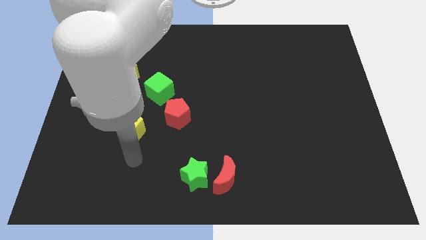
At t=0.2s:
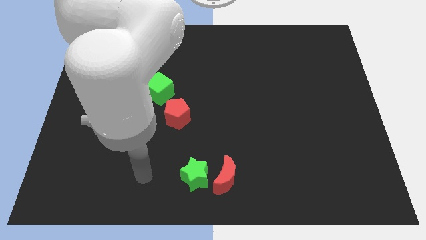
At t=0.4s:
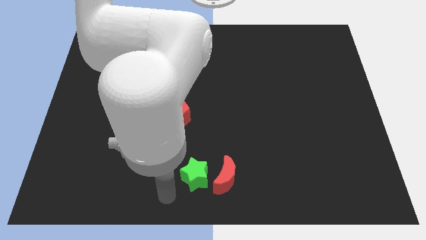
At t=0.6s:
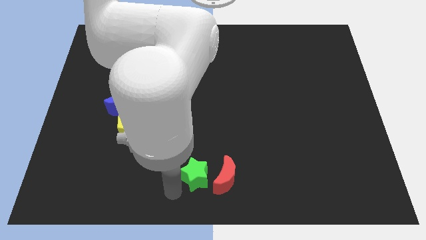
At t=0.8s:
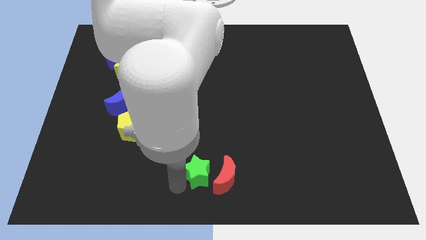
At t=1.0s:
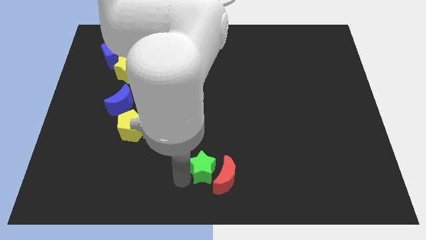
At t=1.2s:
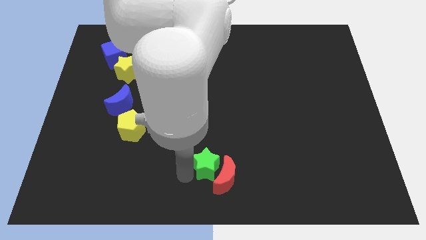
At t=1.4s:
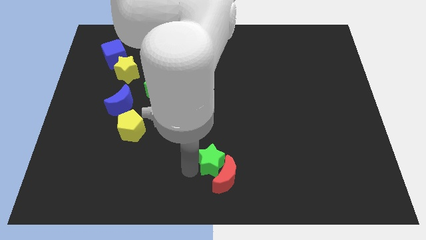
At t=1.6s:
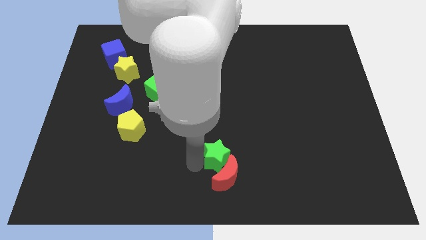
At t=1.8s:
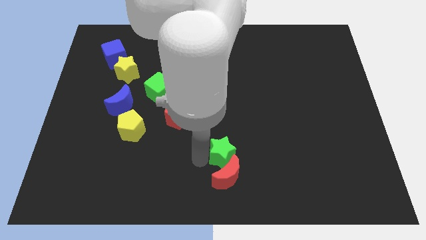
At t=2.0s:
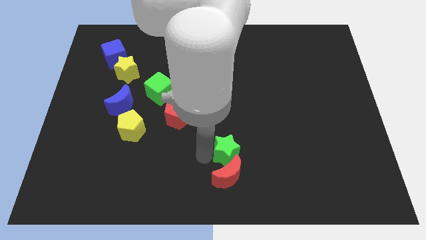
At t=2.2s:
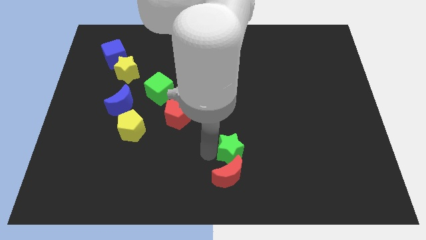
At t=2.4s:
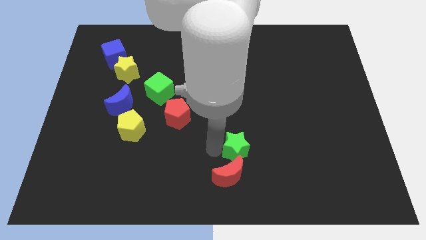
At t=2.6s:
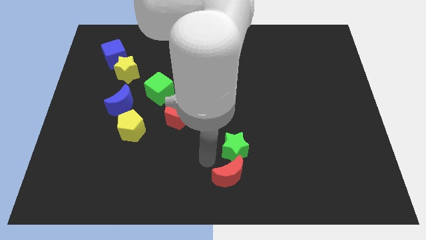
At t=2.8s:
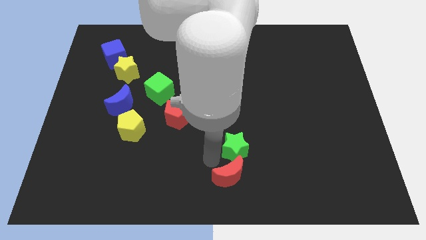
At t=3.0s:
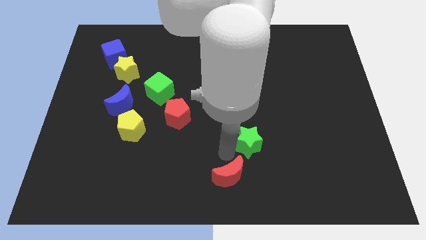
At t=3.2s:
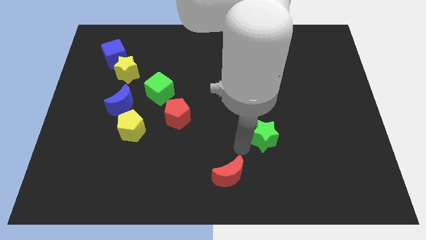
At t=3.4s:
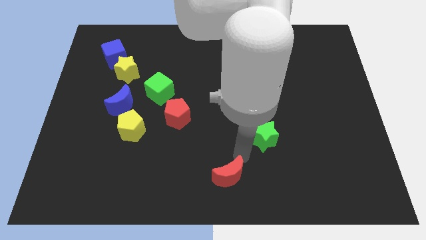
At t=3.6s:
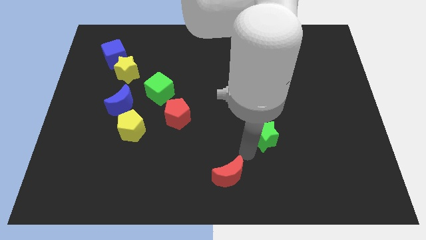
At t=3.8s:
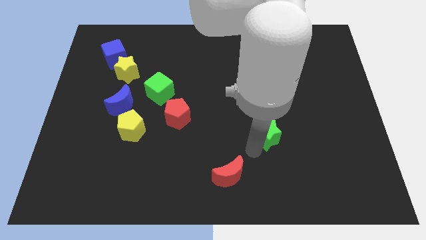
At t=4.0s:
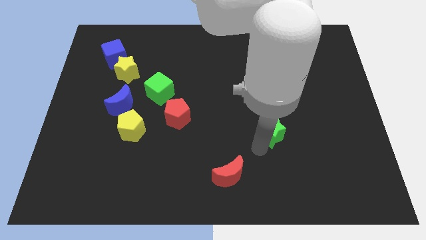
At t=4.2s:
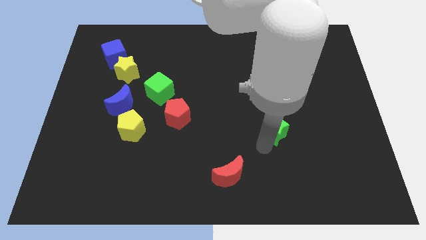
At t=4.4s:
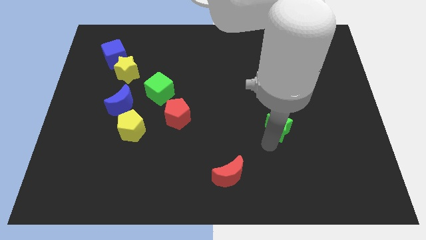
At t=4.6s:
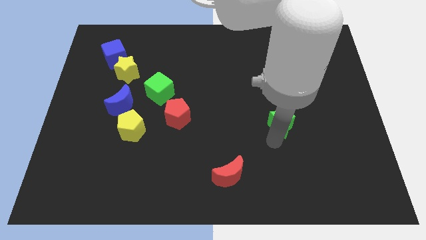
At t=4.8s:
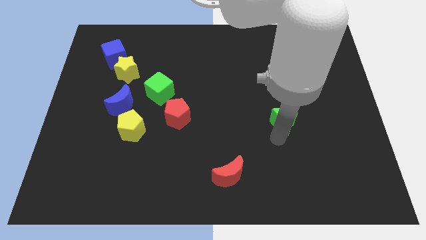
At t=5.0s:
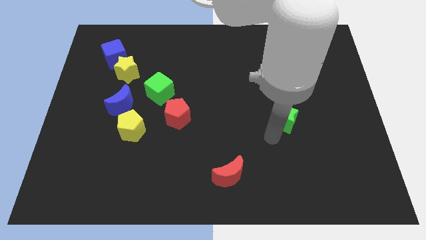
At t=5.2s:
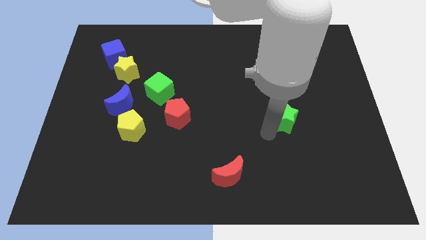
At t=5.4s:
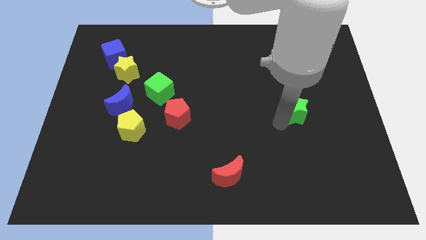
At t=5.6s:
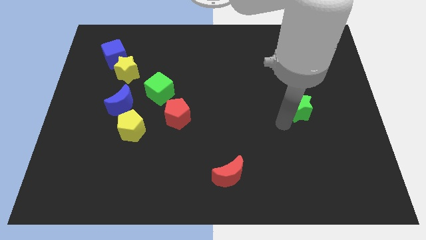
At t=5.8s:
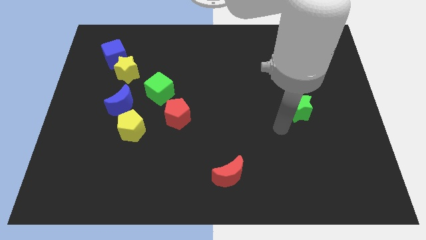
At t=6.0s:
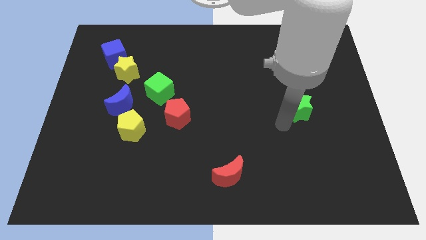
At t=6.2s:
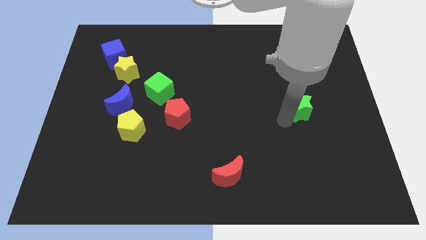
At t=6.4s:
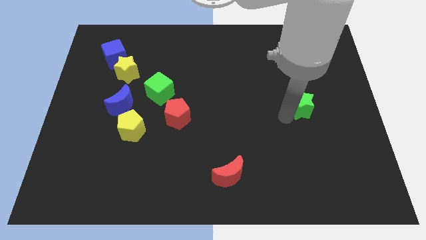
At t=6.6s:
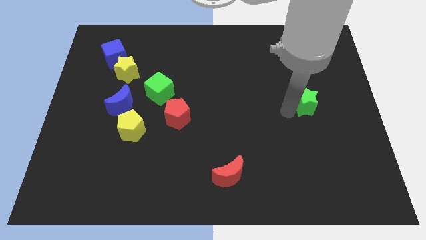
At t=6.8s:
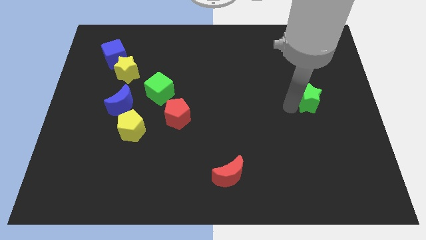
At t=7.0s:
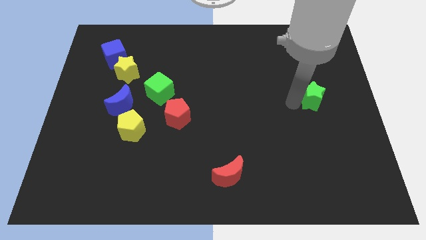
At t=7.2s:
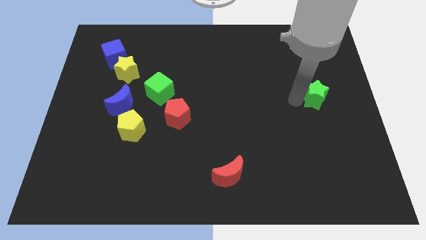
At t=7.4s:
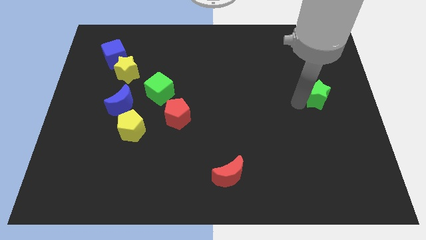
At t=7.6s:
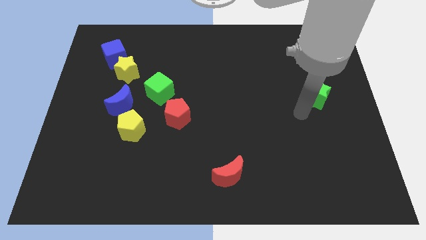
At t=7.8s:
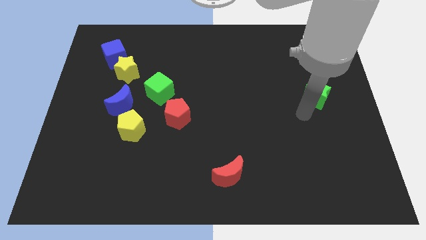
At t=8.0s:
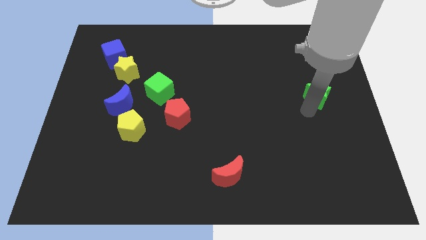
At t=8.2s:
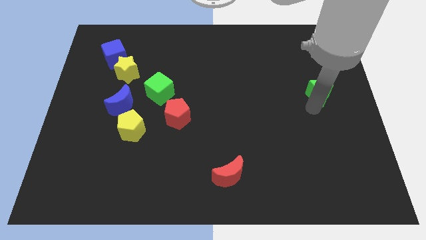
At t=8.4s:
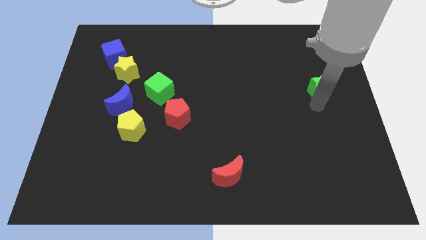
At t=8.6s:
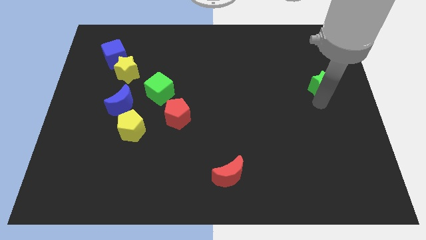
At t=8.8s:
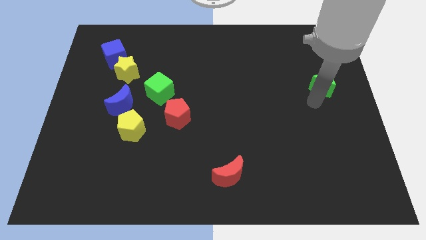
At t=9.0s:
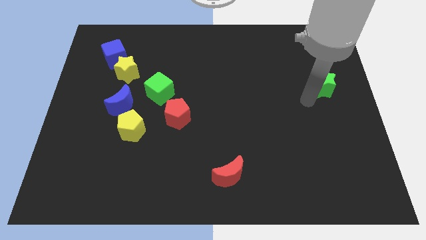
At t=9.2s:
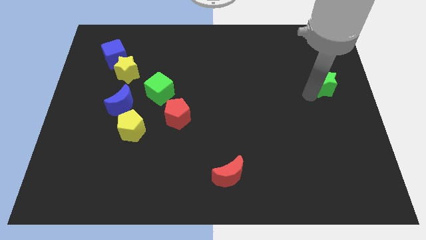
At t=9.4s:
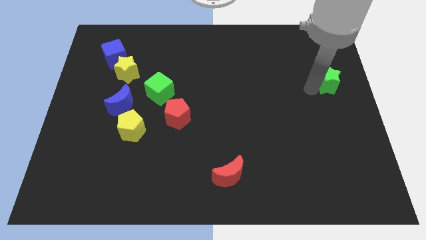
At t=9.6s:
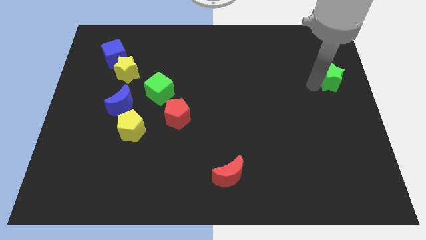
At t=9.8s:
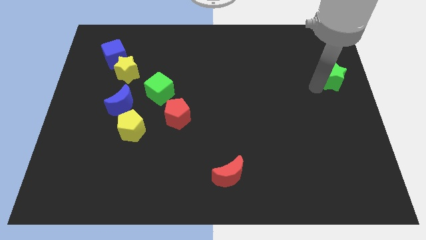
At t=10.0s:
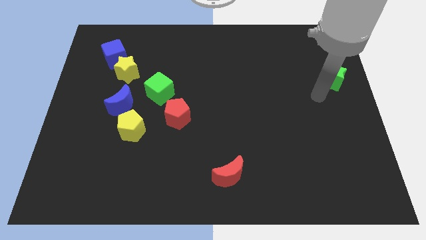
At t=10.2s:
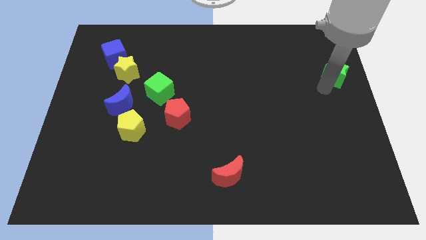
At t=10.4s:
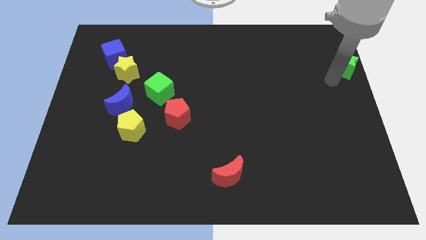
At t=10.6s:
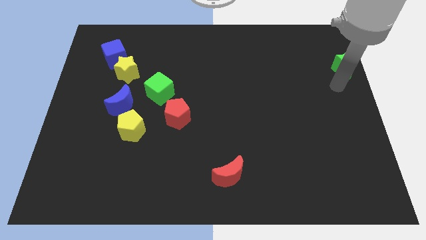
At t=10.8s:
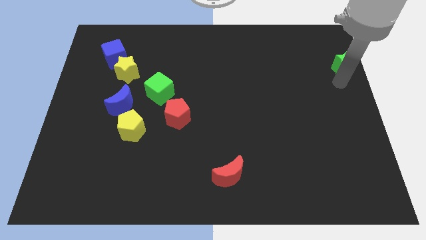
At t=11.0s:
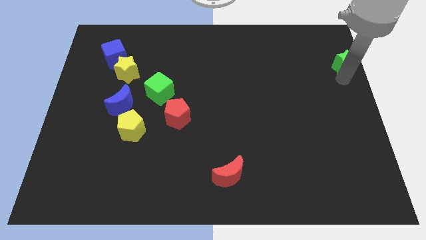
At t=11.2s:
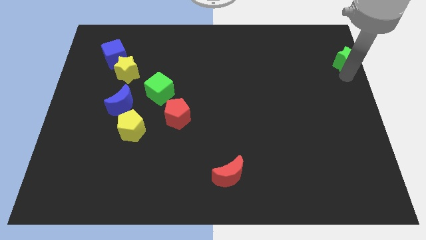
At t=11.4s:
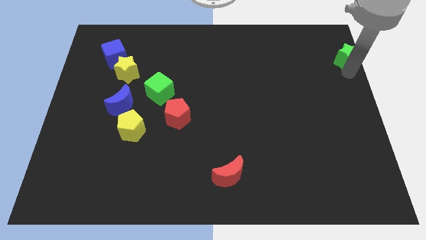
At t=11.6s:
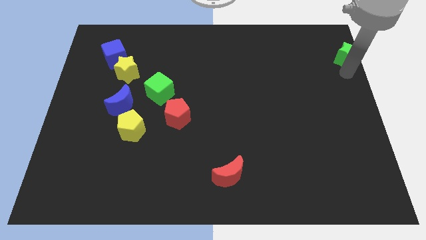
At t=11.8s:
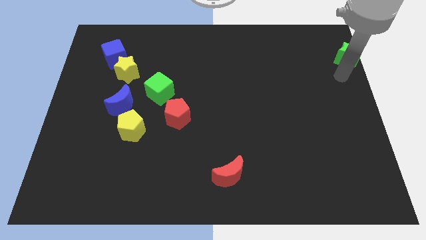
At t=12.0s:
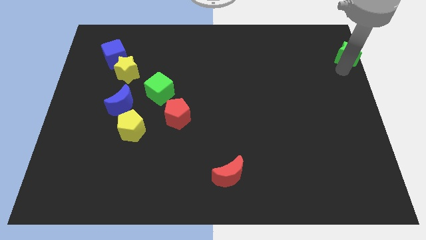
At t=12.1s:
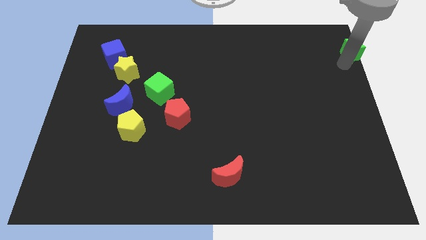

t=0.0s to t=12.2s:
slide the green star to the upper right corner

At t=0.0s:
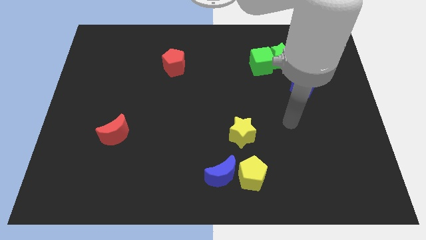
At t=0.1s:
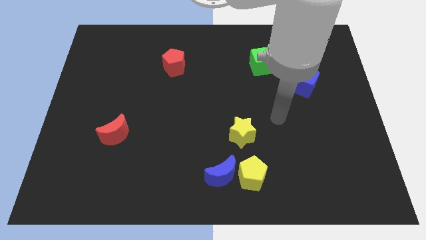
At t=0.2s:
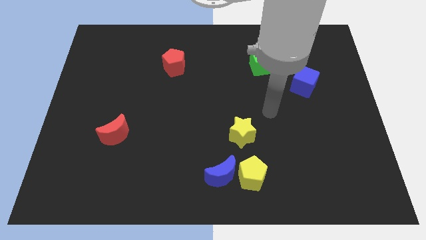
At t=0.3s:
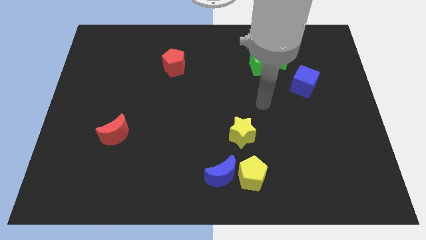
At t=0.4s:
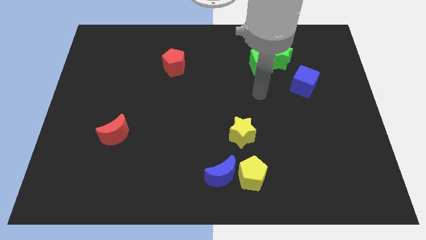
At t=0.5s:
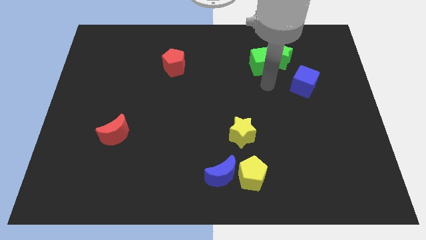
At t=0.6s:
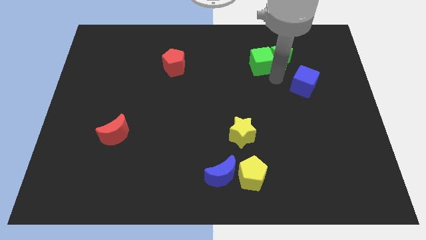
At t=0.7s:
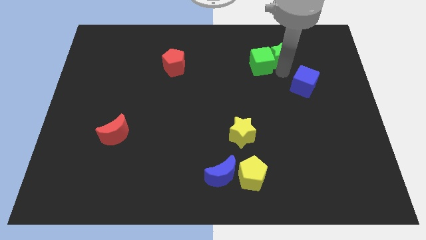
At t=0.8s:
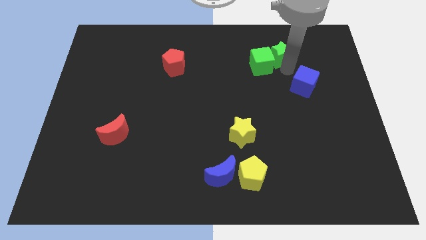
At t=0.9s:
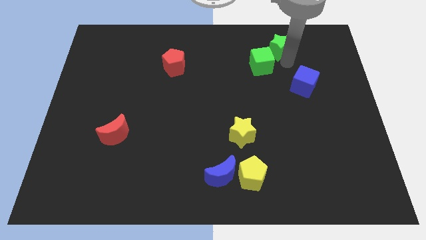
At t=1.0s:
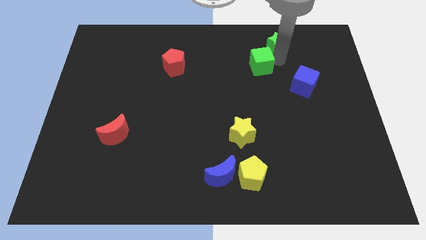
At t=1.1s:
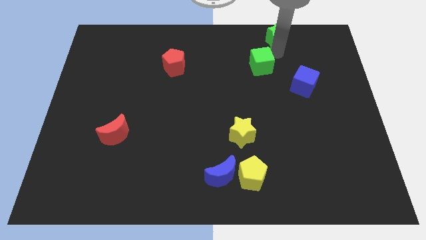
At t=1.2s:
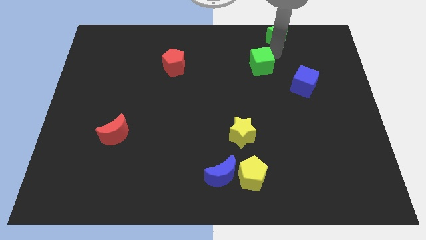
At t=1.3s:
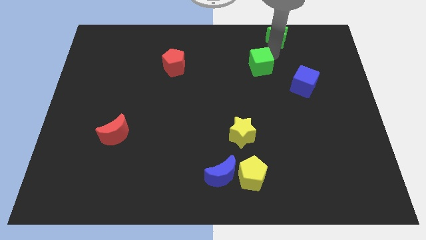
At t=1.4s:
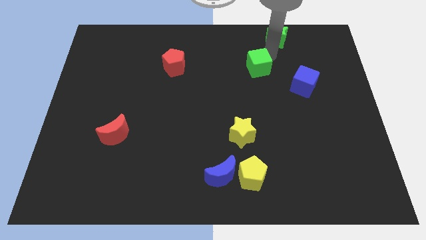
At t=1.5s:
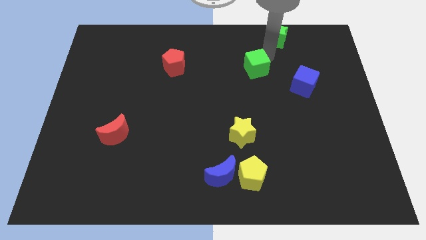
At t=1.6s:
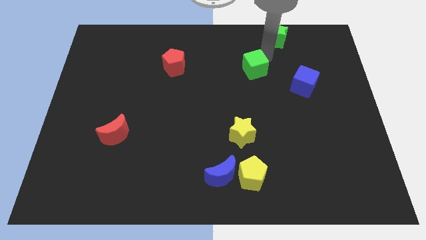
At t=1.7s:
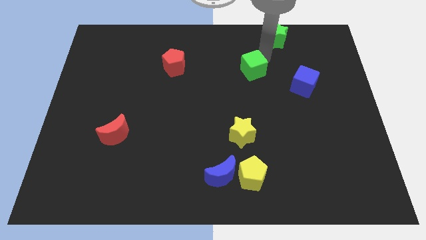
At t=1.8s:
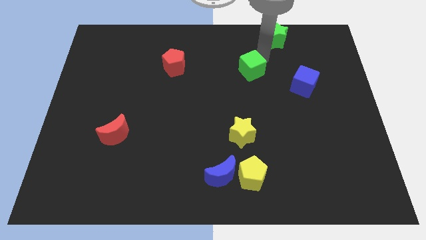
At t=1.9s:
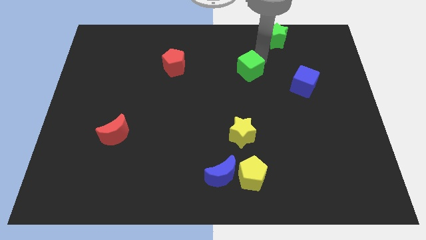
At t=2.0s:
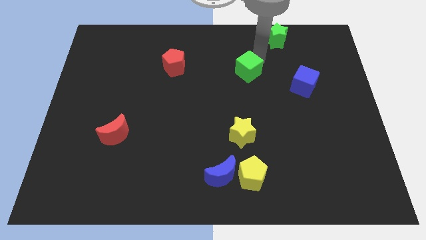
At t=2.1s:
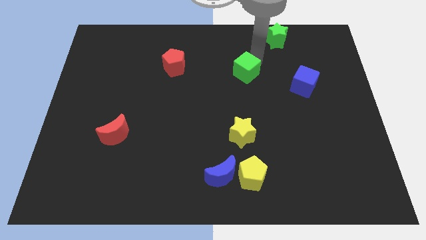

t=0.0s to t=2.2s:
slide the green cube to the center of the board
